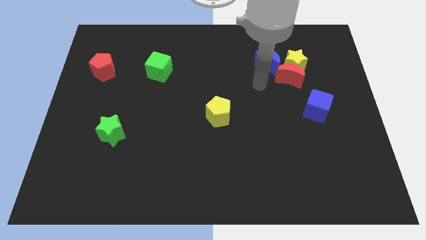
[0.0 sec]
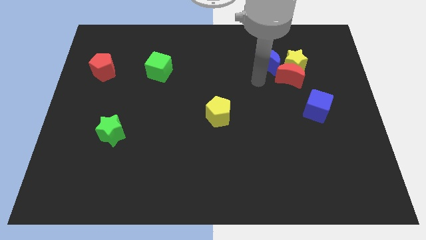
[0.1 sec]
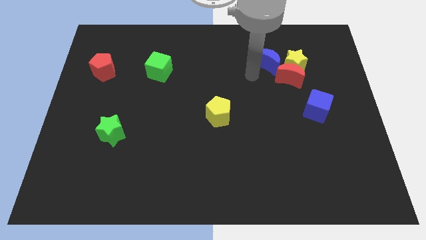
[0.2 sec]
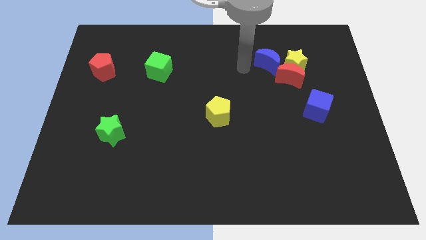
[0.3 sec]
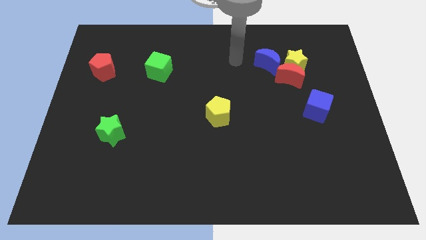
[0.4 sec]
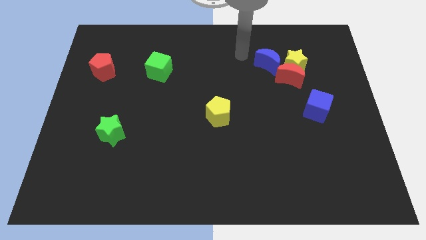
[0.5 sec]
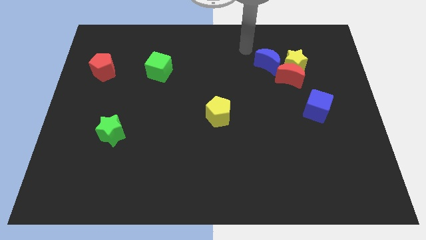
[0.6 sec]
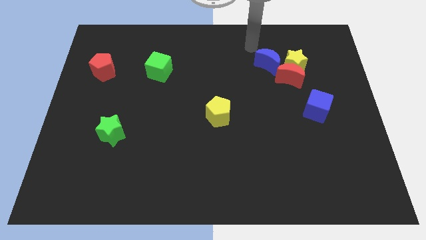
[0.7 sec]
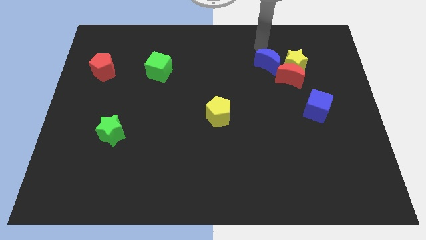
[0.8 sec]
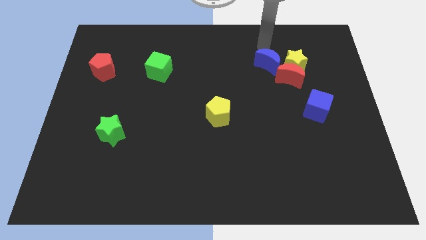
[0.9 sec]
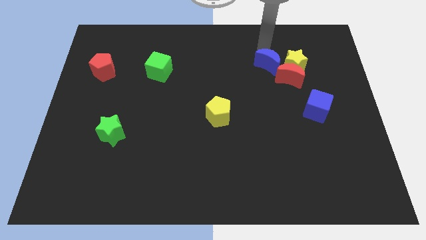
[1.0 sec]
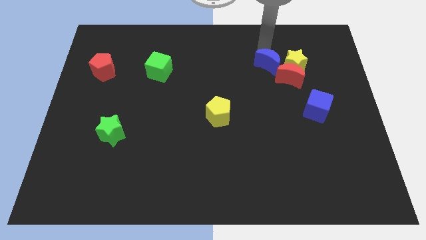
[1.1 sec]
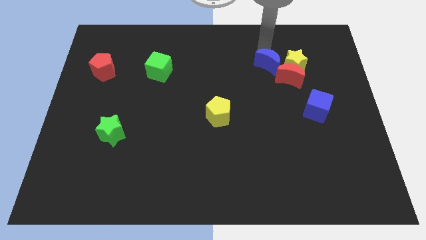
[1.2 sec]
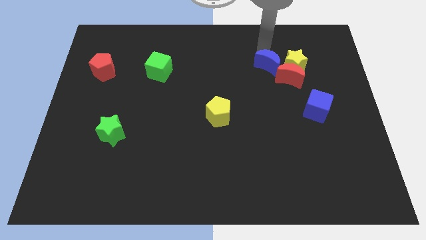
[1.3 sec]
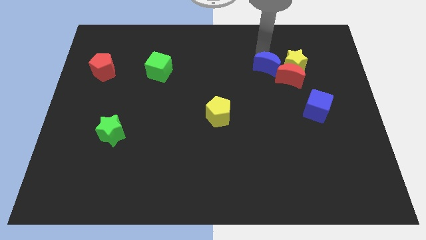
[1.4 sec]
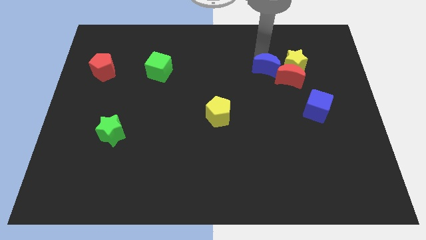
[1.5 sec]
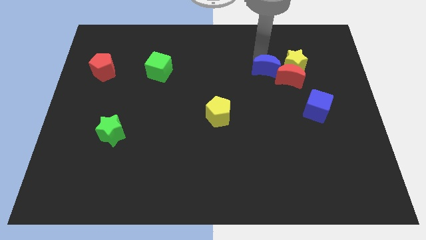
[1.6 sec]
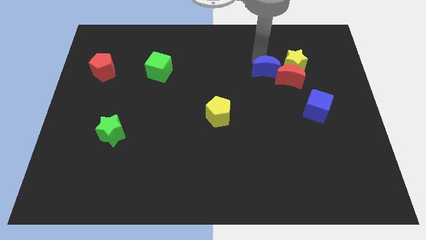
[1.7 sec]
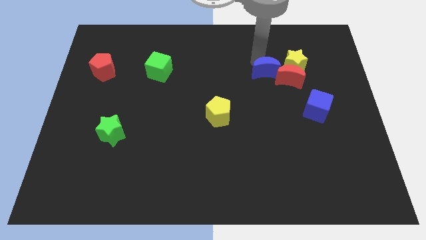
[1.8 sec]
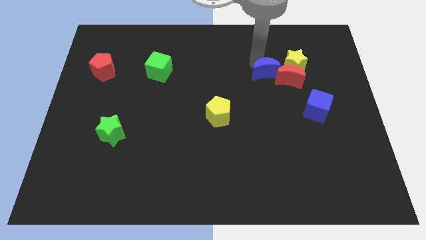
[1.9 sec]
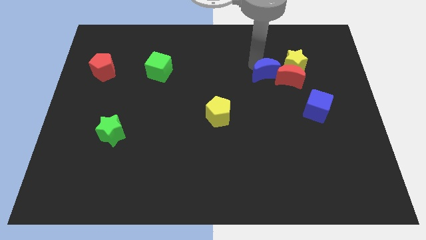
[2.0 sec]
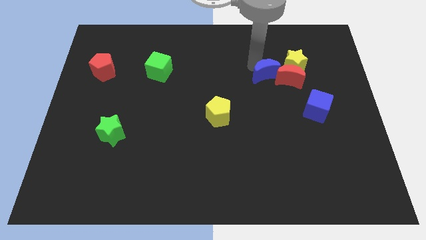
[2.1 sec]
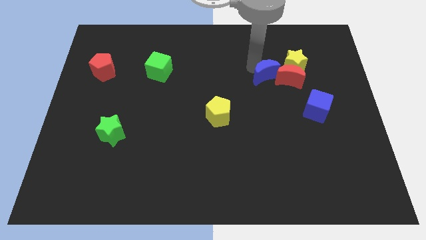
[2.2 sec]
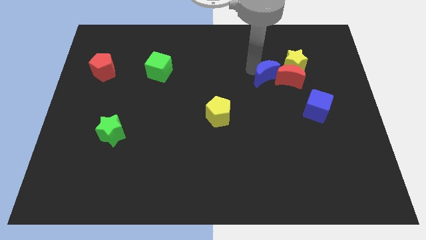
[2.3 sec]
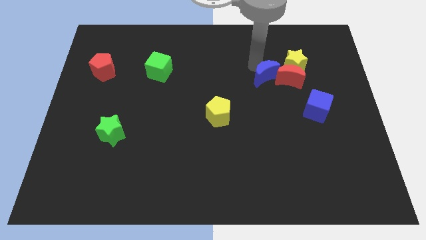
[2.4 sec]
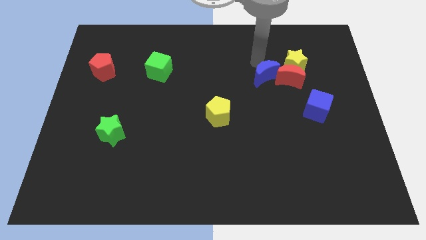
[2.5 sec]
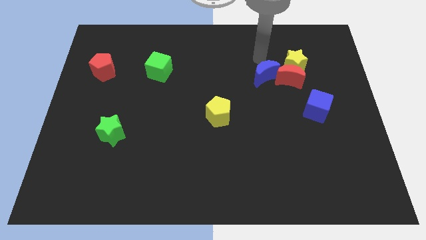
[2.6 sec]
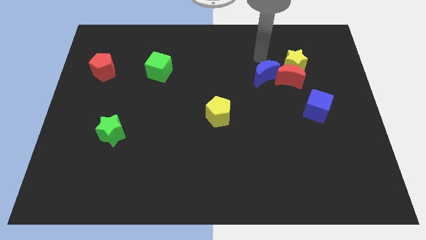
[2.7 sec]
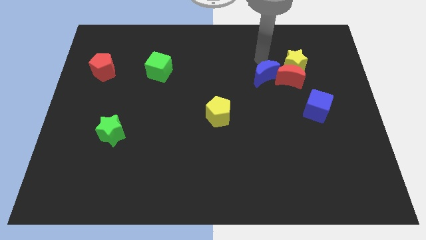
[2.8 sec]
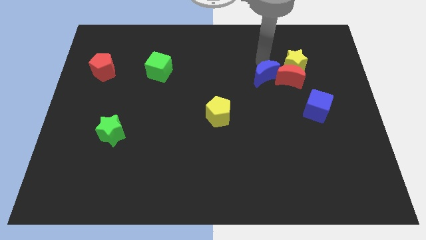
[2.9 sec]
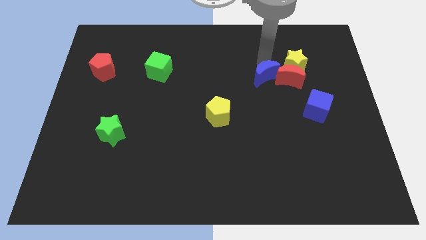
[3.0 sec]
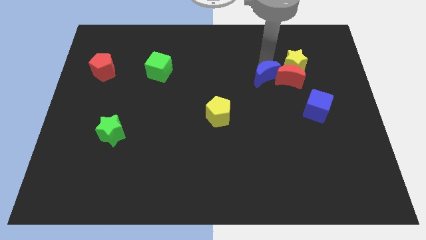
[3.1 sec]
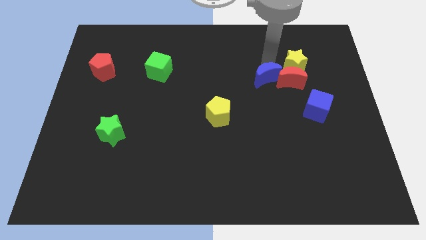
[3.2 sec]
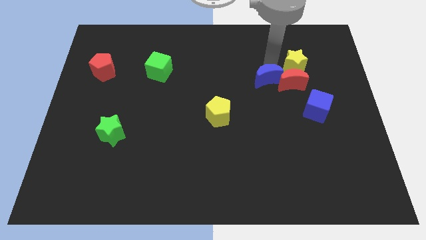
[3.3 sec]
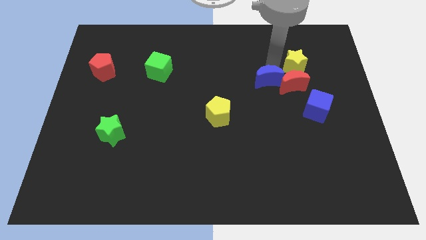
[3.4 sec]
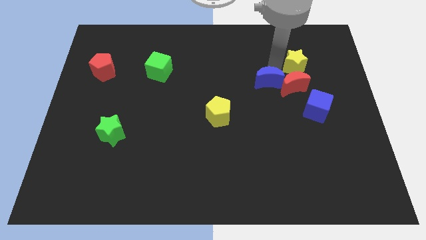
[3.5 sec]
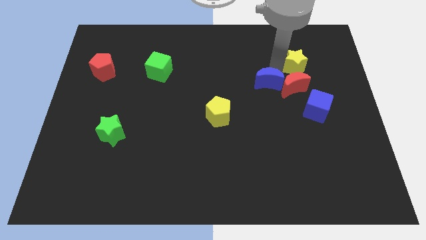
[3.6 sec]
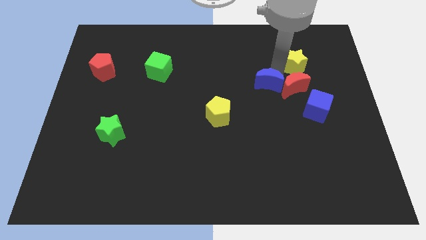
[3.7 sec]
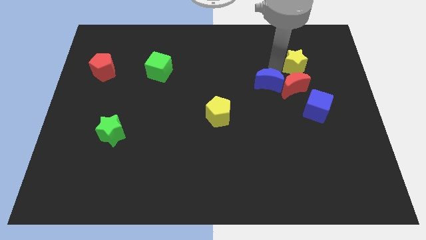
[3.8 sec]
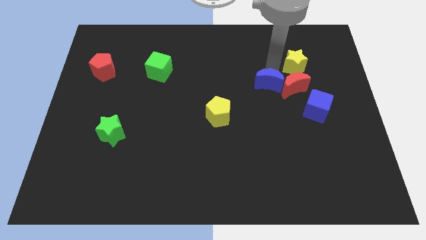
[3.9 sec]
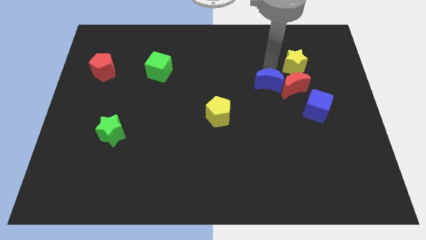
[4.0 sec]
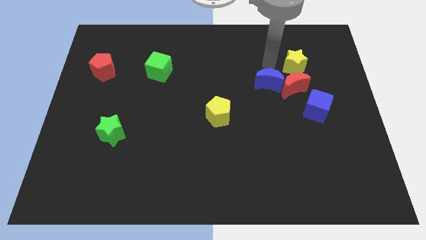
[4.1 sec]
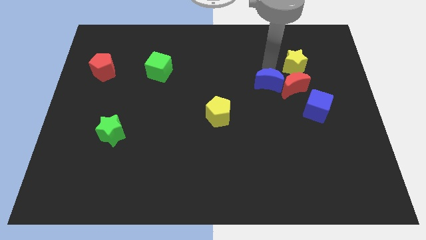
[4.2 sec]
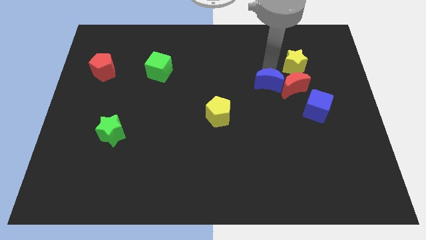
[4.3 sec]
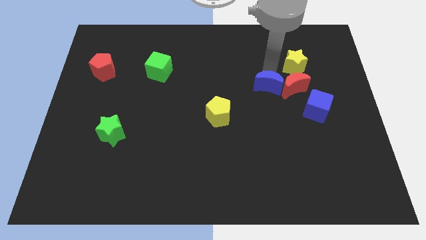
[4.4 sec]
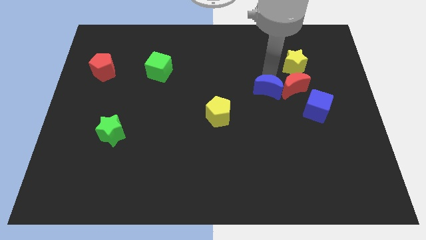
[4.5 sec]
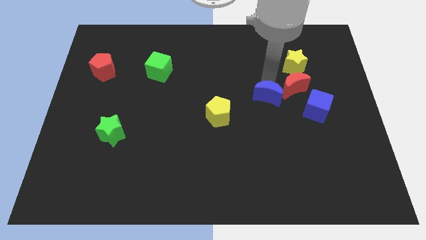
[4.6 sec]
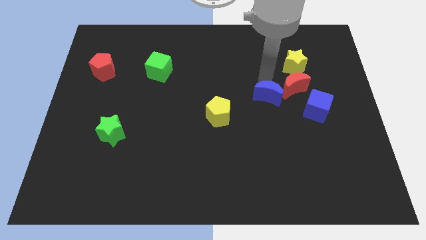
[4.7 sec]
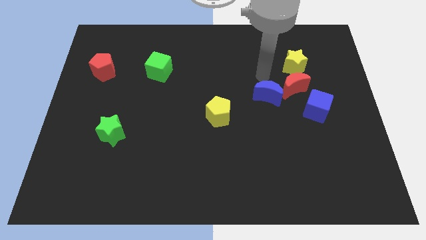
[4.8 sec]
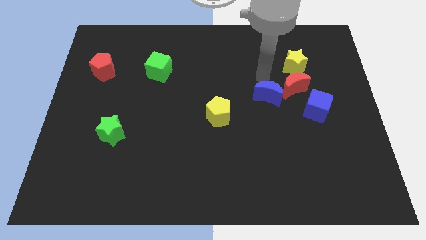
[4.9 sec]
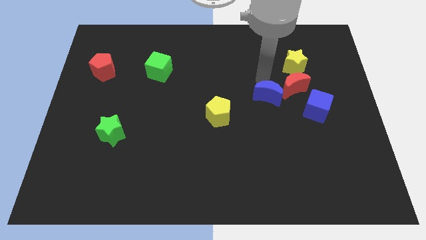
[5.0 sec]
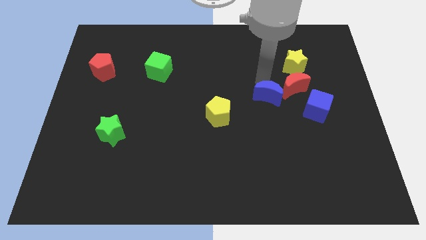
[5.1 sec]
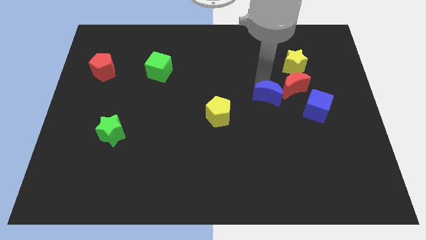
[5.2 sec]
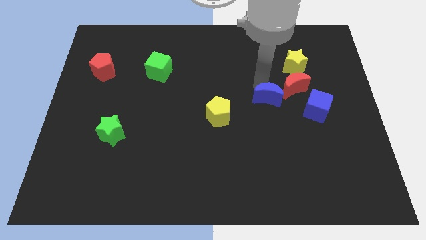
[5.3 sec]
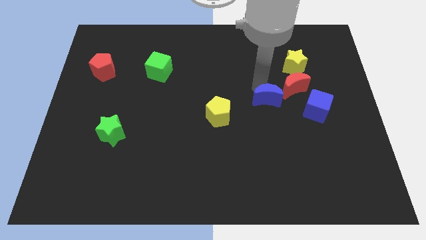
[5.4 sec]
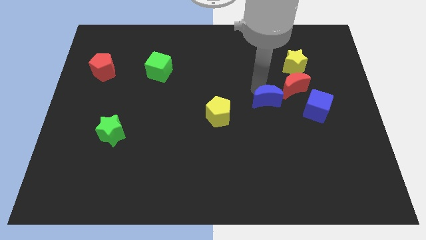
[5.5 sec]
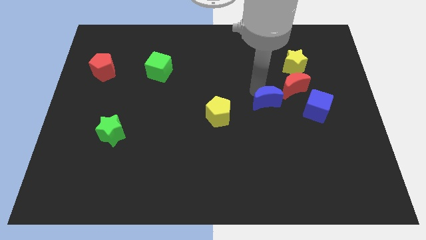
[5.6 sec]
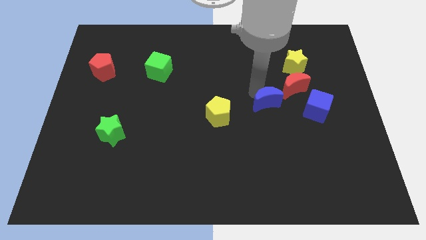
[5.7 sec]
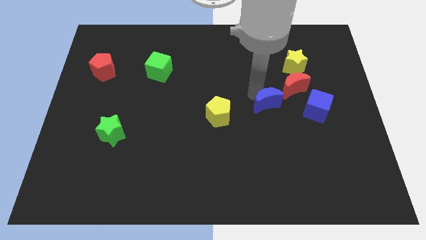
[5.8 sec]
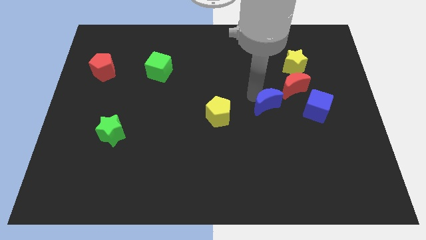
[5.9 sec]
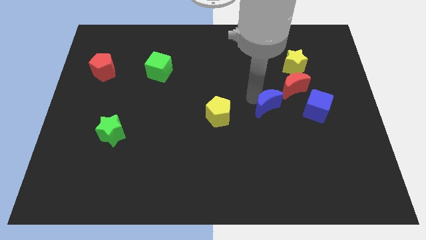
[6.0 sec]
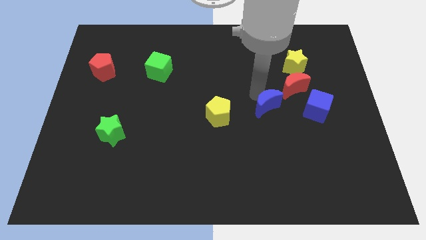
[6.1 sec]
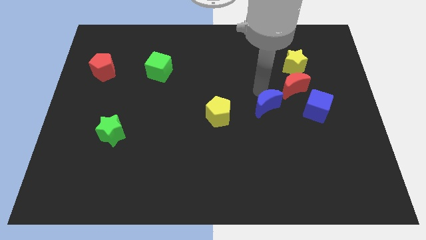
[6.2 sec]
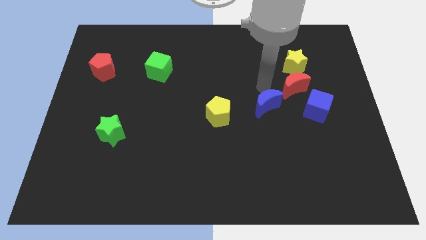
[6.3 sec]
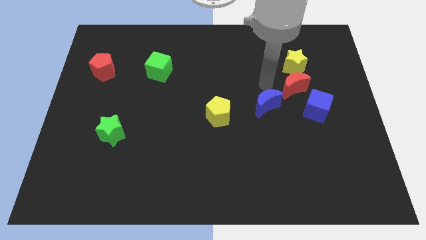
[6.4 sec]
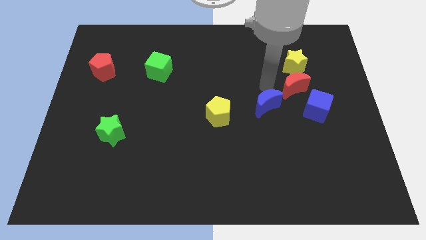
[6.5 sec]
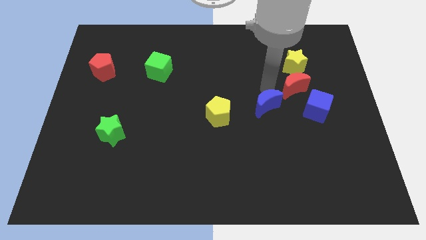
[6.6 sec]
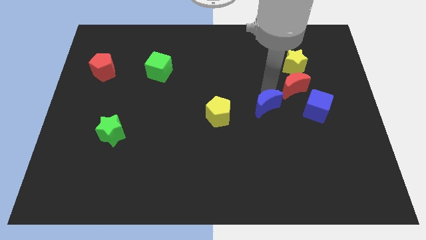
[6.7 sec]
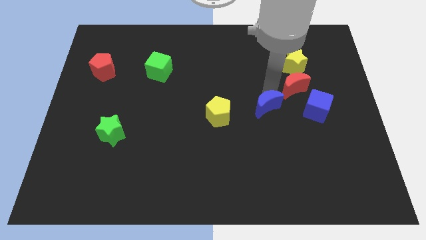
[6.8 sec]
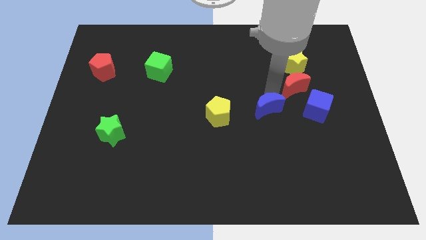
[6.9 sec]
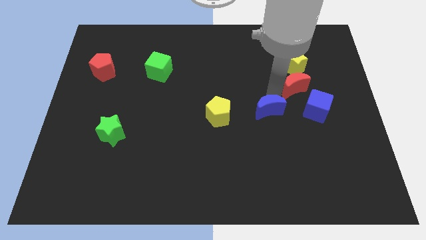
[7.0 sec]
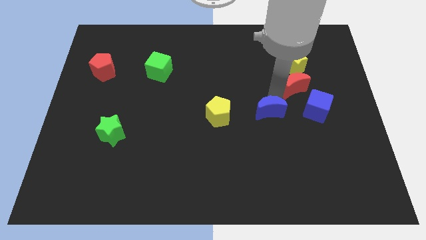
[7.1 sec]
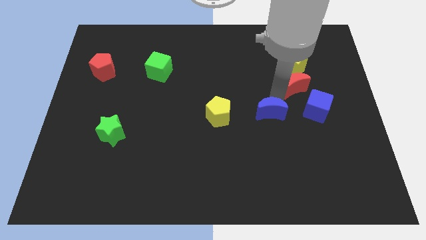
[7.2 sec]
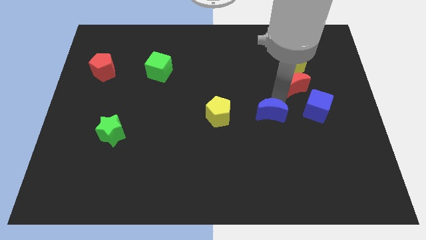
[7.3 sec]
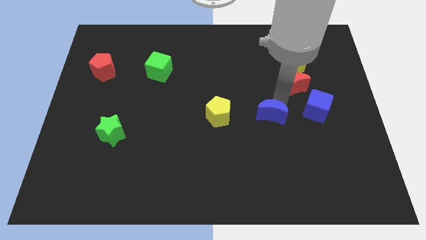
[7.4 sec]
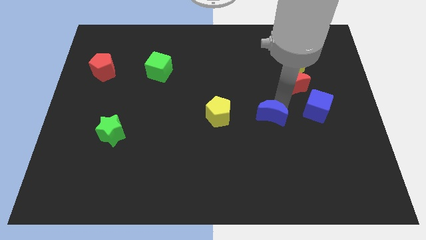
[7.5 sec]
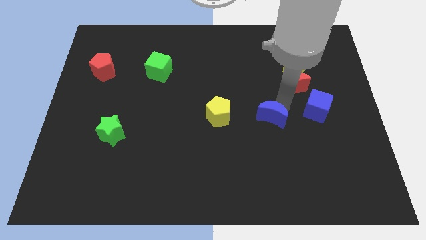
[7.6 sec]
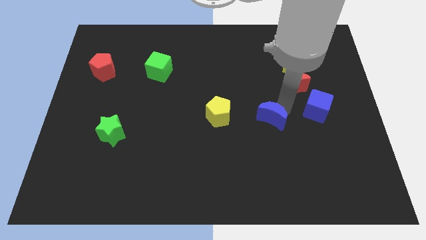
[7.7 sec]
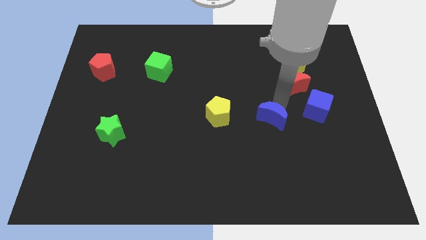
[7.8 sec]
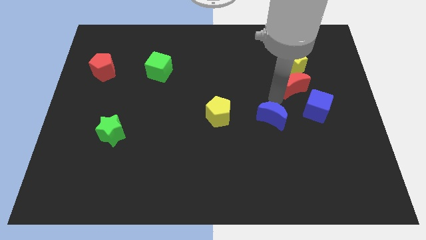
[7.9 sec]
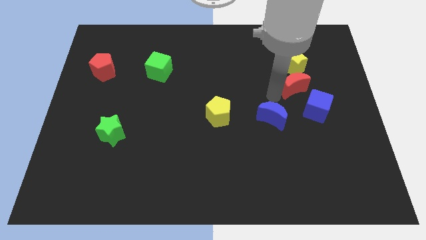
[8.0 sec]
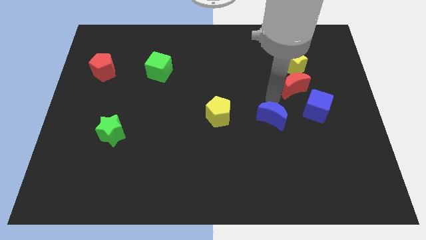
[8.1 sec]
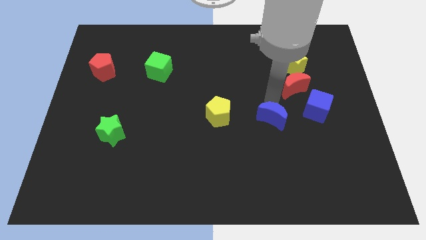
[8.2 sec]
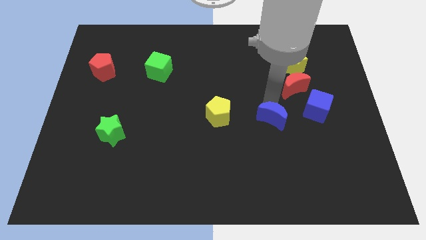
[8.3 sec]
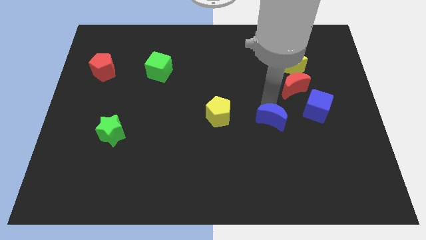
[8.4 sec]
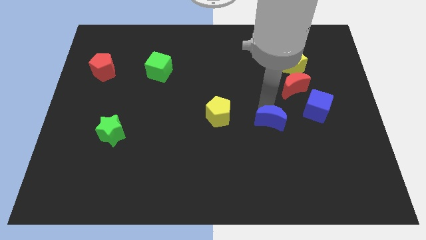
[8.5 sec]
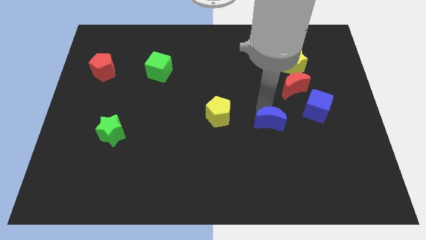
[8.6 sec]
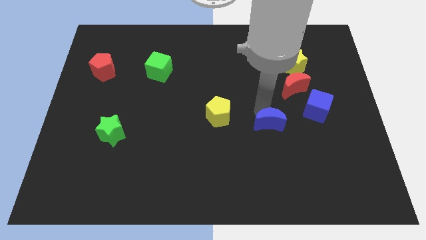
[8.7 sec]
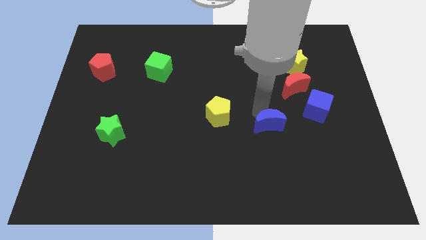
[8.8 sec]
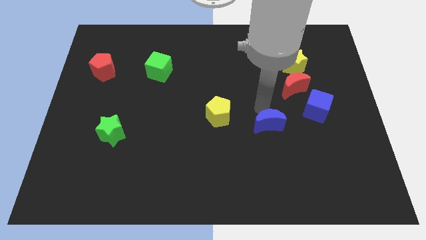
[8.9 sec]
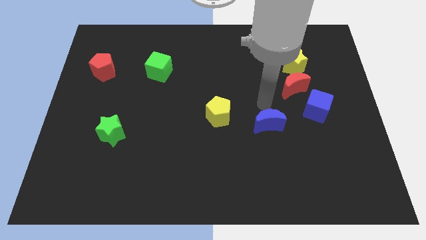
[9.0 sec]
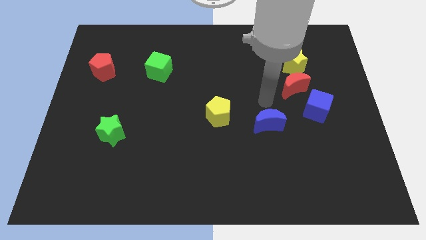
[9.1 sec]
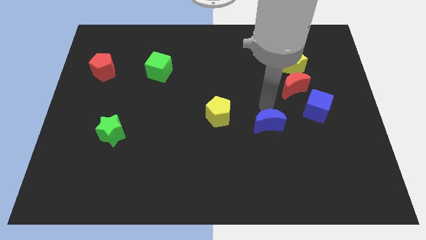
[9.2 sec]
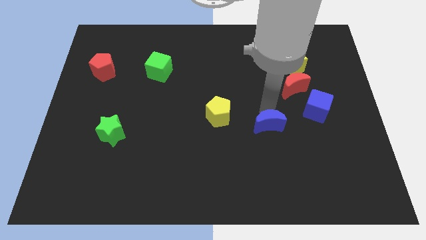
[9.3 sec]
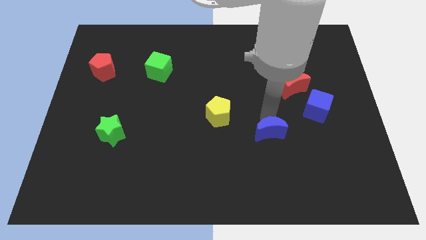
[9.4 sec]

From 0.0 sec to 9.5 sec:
slide the blue moon downwards
